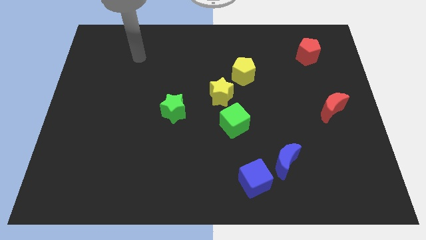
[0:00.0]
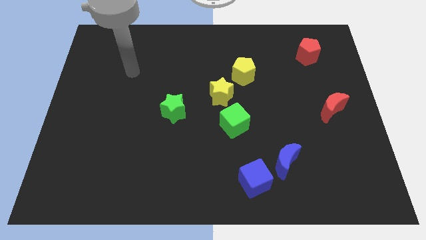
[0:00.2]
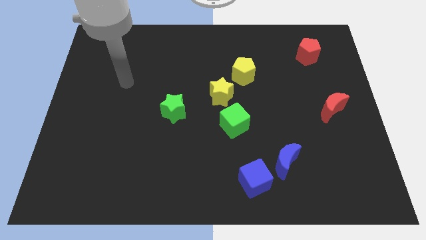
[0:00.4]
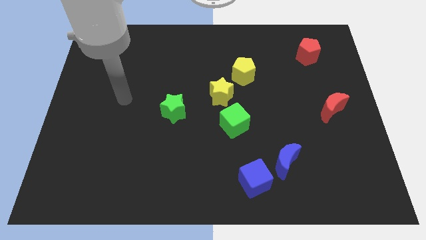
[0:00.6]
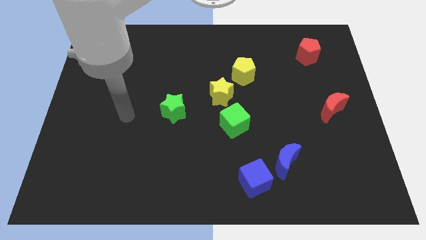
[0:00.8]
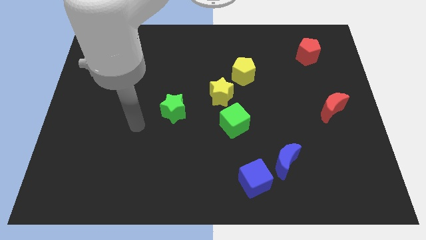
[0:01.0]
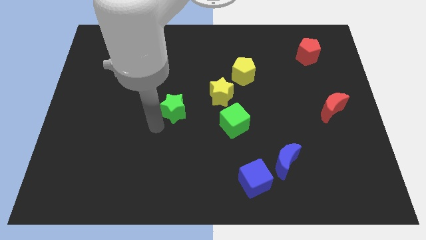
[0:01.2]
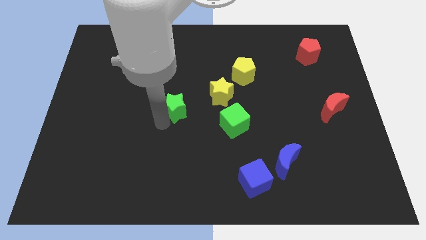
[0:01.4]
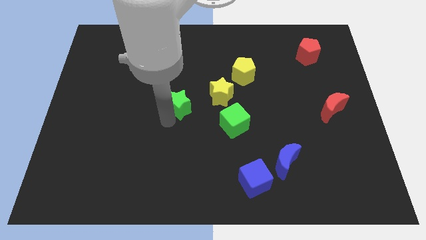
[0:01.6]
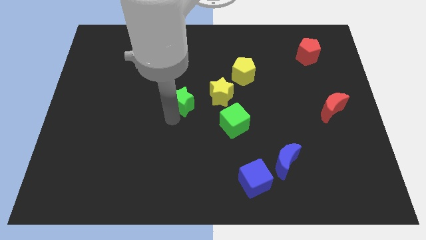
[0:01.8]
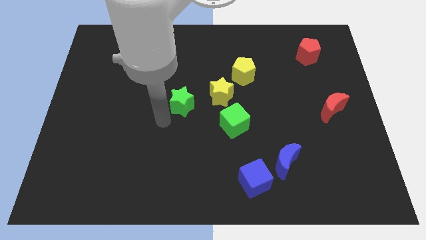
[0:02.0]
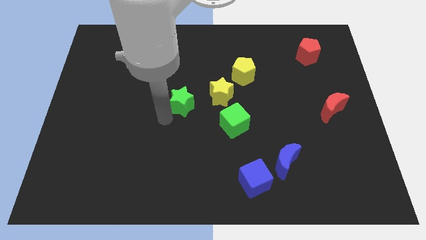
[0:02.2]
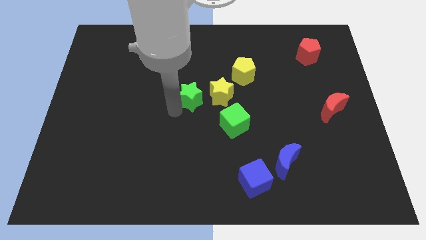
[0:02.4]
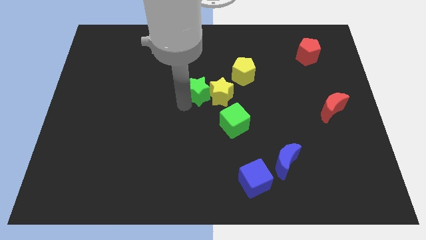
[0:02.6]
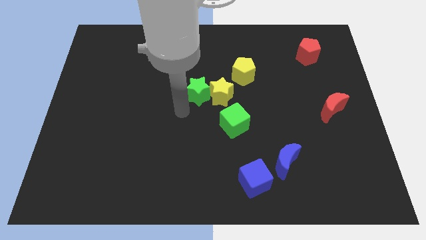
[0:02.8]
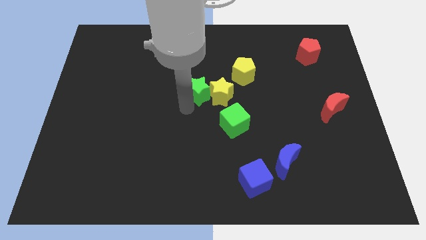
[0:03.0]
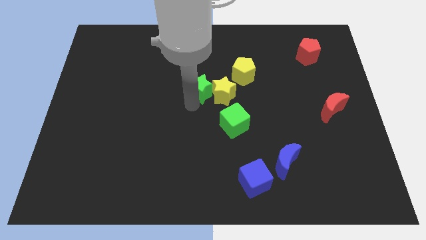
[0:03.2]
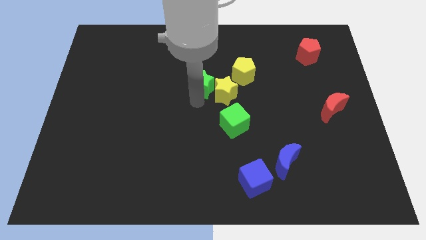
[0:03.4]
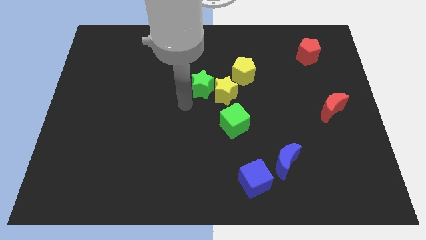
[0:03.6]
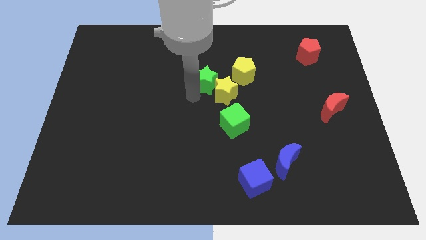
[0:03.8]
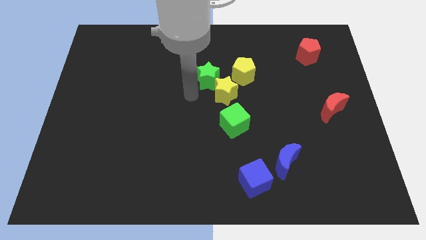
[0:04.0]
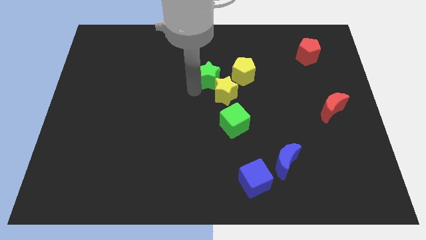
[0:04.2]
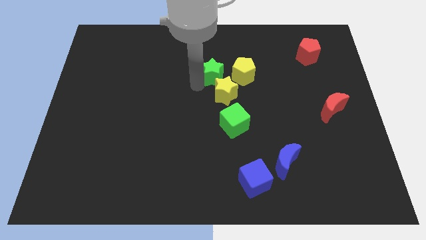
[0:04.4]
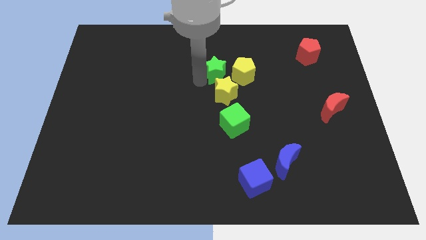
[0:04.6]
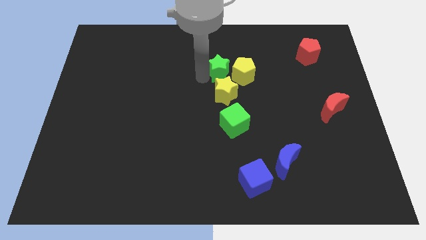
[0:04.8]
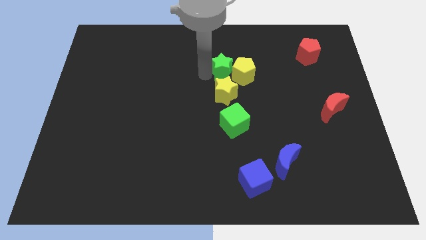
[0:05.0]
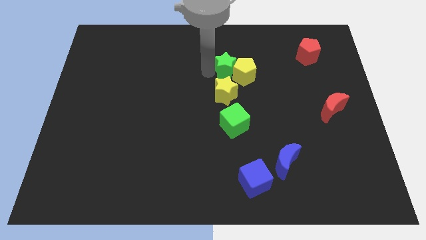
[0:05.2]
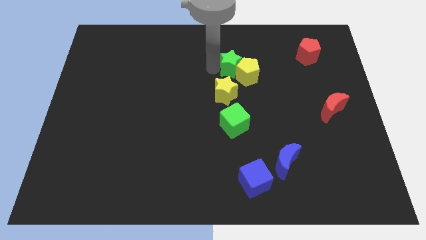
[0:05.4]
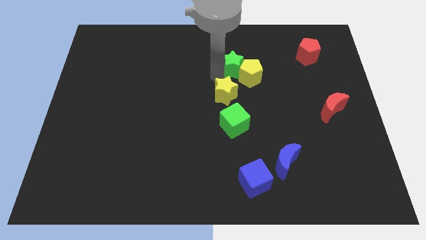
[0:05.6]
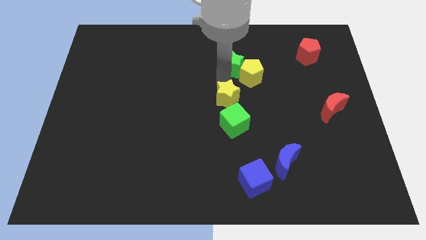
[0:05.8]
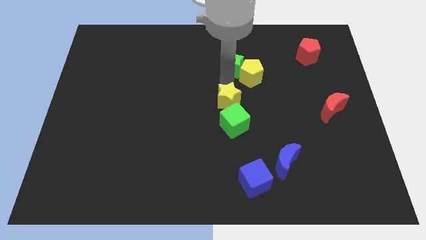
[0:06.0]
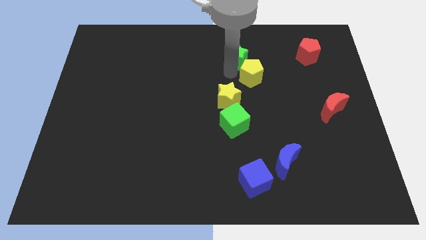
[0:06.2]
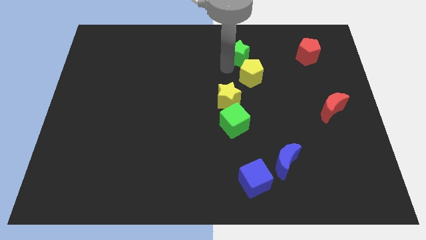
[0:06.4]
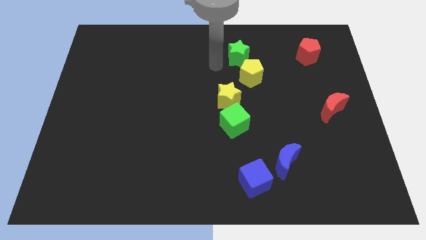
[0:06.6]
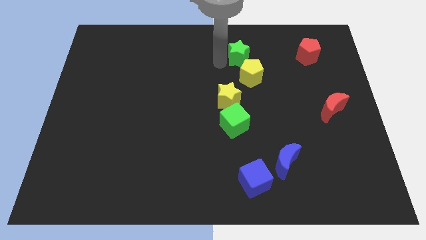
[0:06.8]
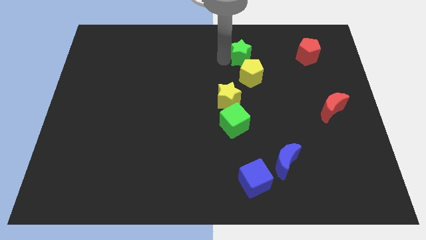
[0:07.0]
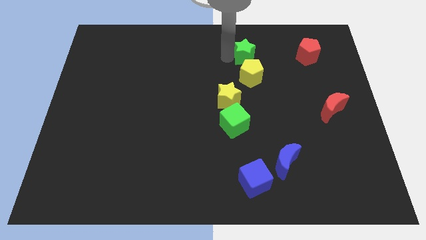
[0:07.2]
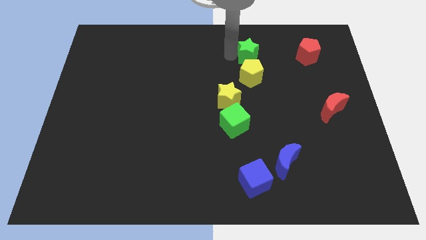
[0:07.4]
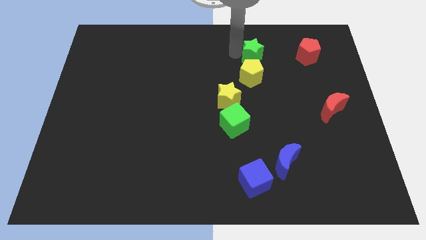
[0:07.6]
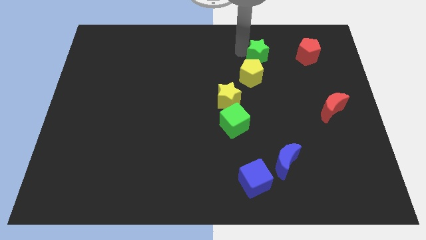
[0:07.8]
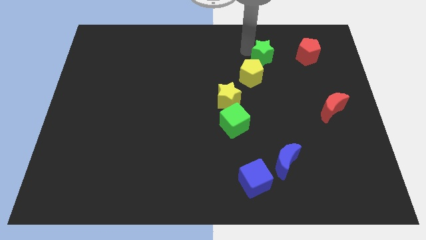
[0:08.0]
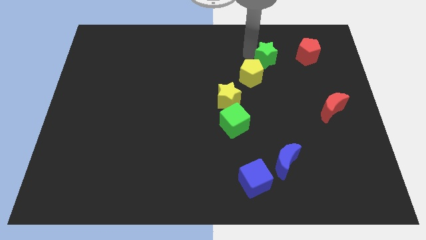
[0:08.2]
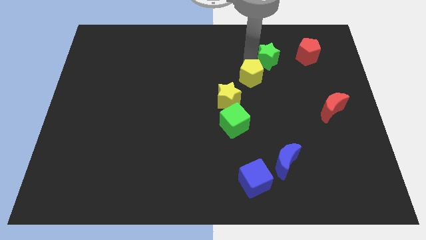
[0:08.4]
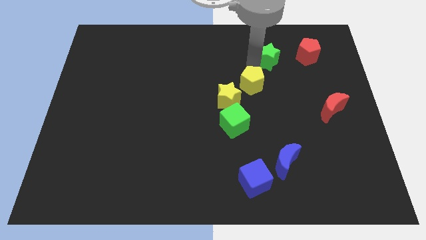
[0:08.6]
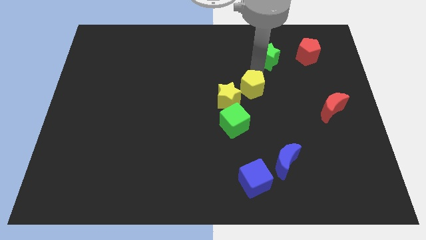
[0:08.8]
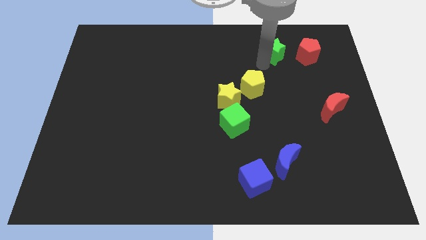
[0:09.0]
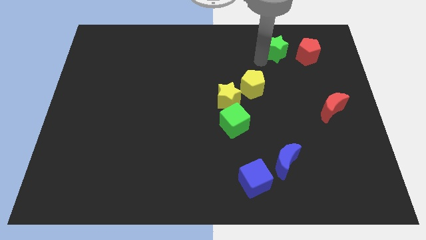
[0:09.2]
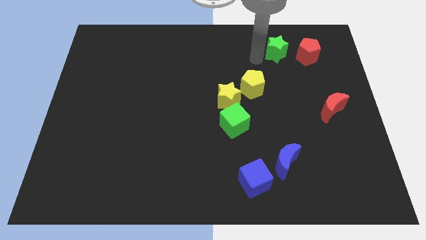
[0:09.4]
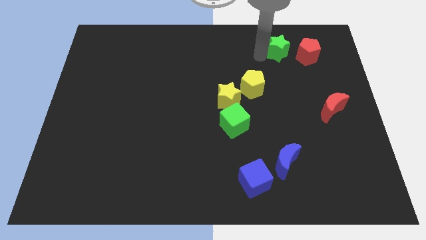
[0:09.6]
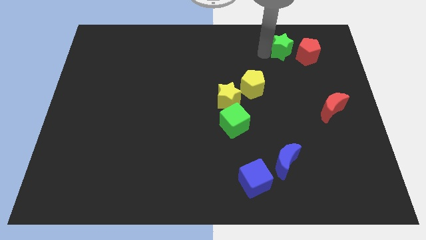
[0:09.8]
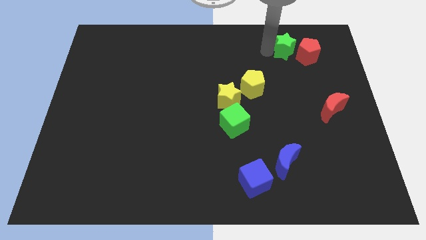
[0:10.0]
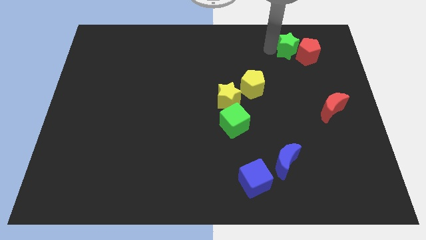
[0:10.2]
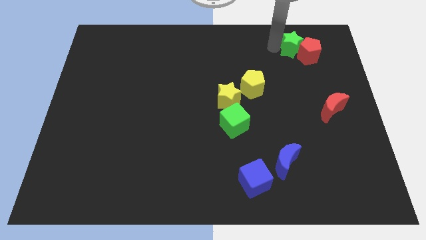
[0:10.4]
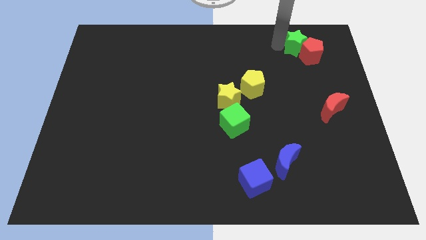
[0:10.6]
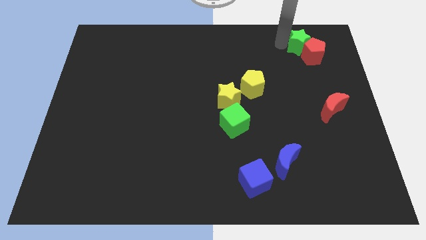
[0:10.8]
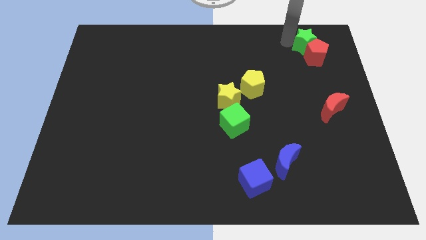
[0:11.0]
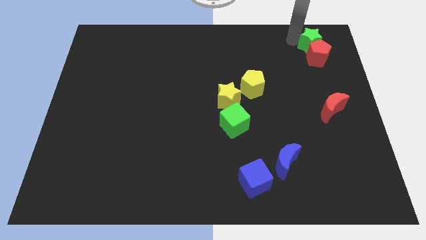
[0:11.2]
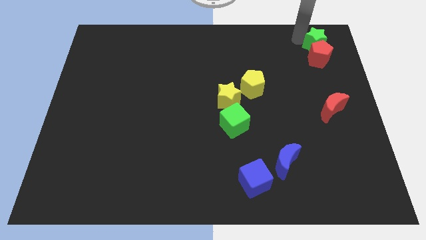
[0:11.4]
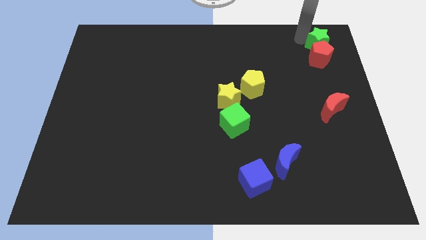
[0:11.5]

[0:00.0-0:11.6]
move the green star to the top right of the board
